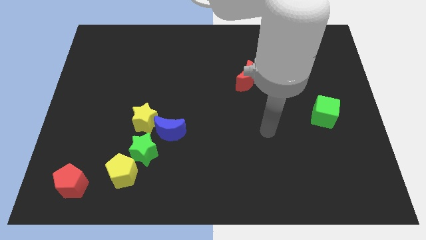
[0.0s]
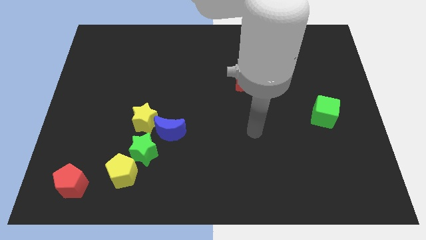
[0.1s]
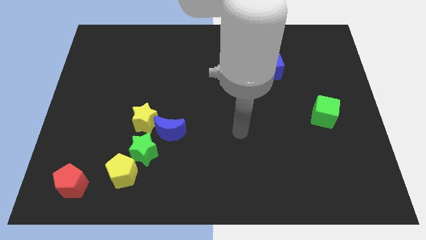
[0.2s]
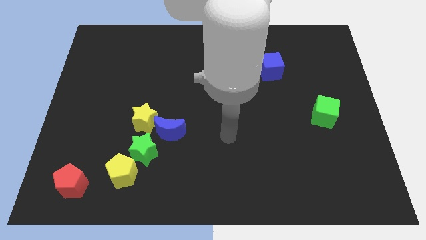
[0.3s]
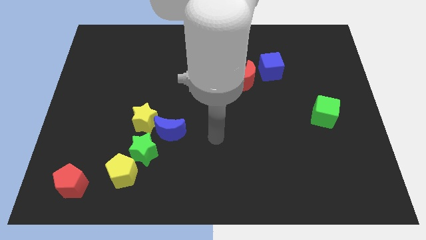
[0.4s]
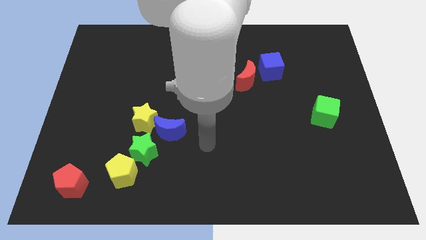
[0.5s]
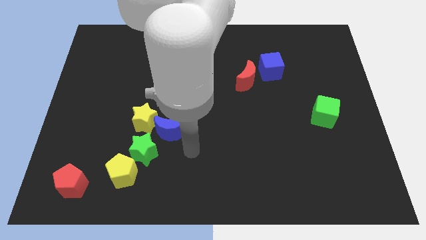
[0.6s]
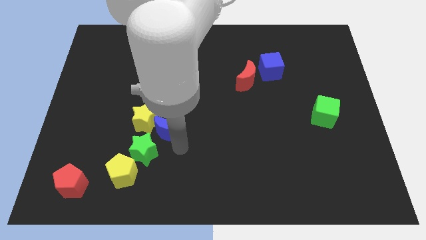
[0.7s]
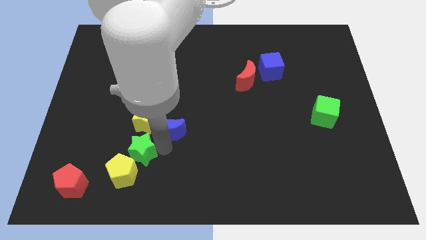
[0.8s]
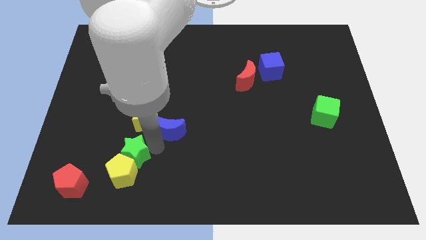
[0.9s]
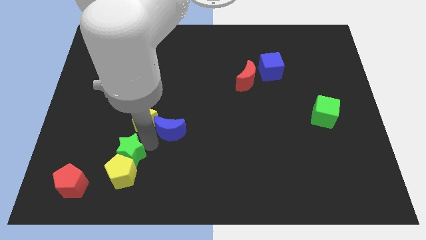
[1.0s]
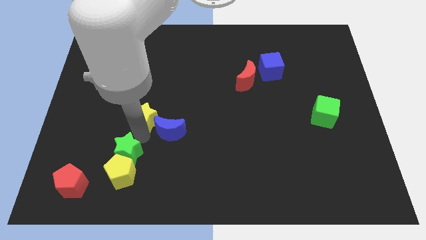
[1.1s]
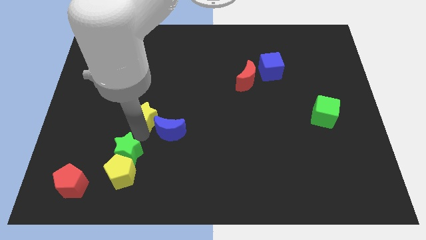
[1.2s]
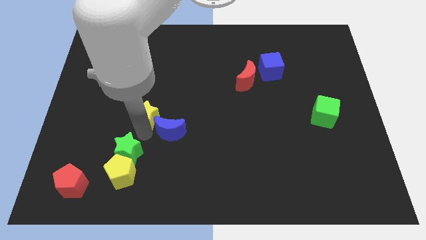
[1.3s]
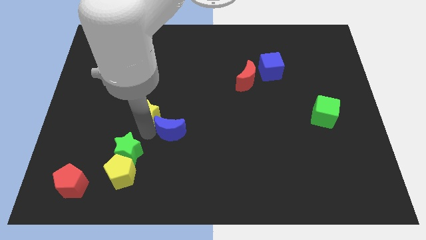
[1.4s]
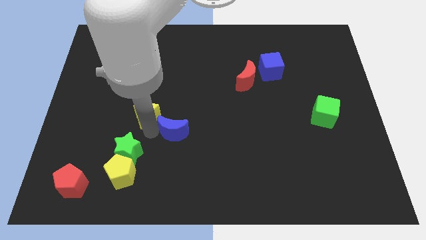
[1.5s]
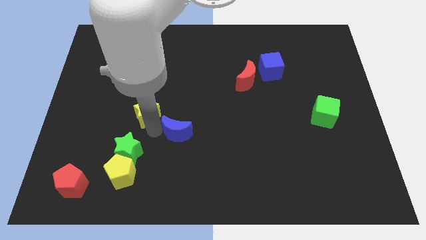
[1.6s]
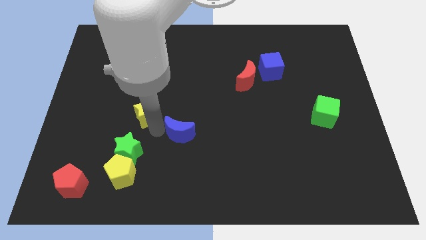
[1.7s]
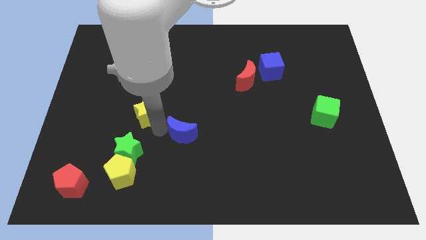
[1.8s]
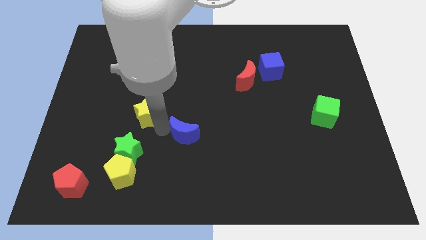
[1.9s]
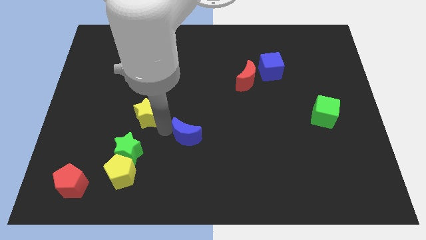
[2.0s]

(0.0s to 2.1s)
pull the blue moon apart from the yellow star and green star

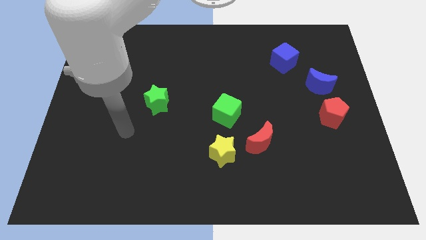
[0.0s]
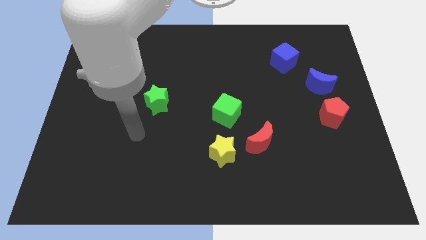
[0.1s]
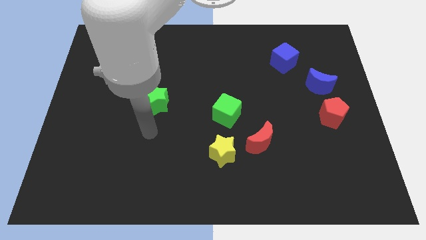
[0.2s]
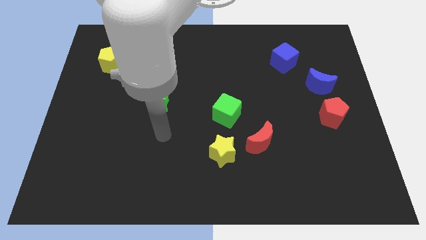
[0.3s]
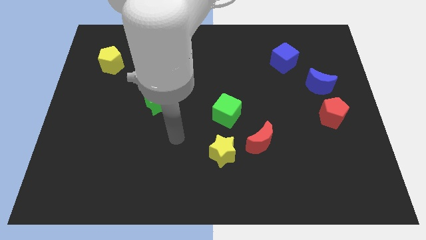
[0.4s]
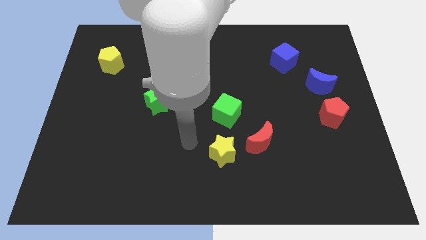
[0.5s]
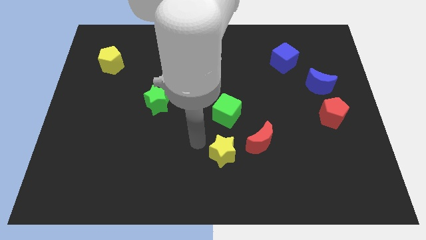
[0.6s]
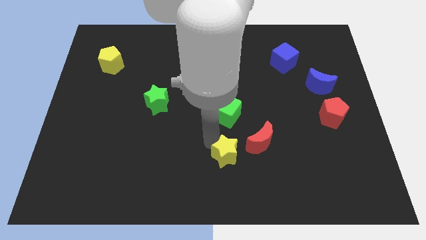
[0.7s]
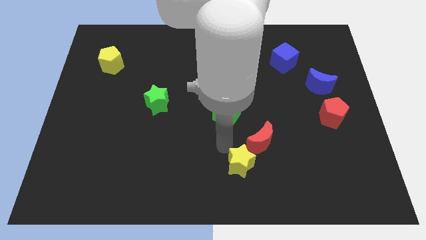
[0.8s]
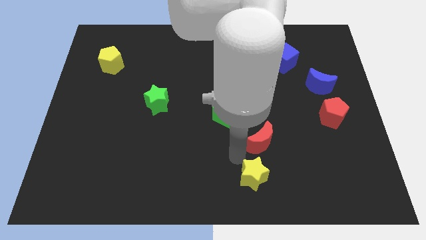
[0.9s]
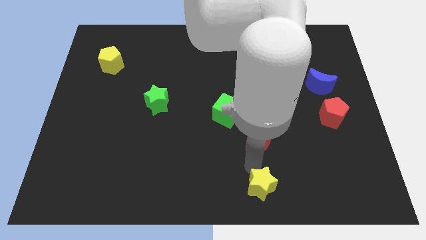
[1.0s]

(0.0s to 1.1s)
separate the red moon from the yellow star

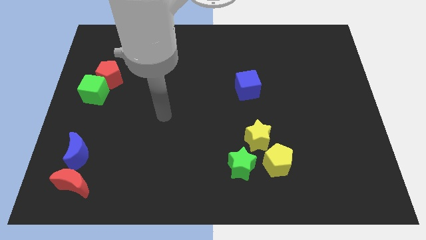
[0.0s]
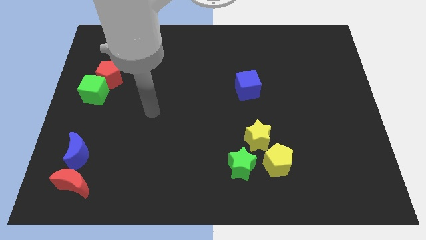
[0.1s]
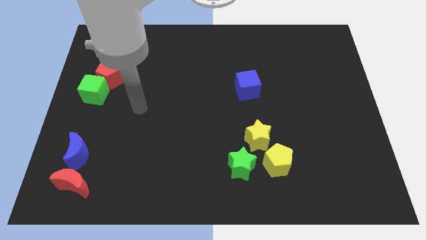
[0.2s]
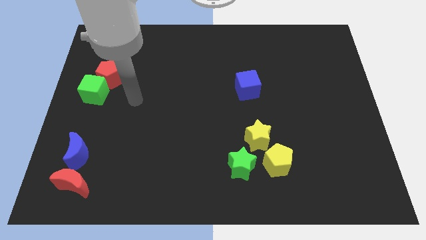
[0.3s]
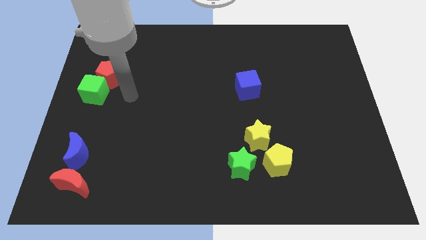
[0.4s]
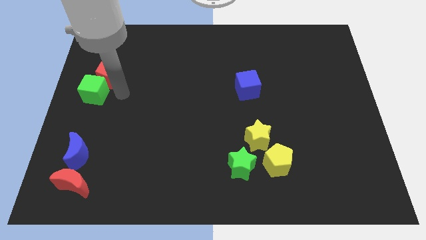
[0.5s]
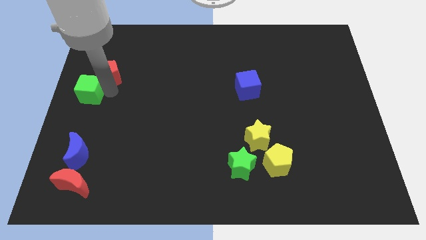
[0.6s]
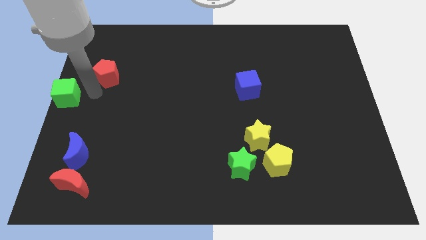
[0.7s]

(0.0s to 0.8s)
separate the red pentagon from the green cube

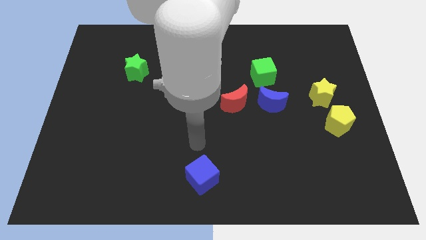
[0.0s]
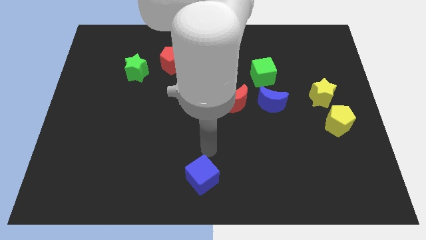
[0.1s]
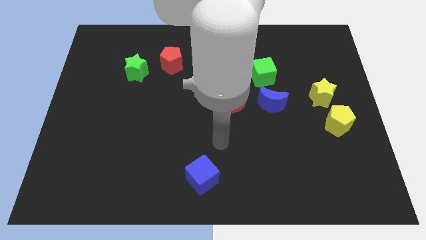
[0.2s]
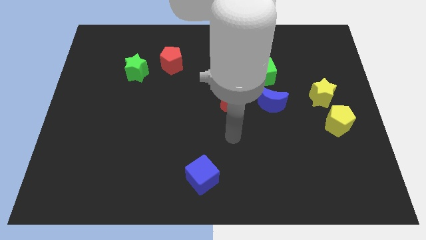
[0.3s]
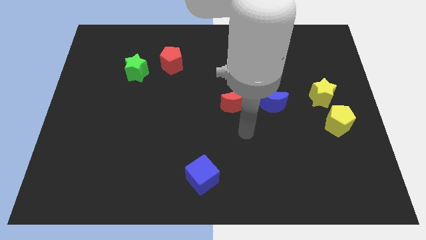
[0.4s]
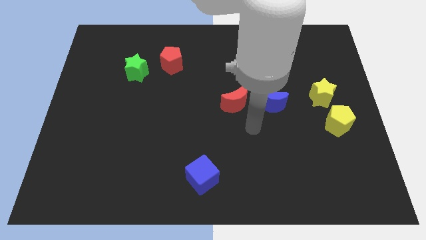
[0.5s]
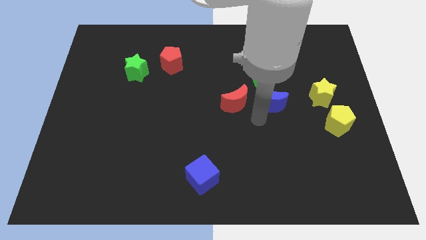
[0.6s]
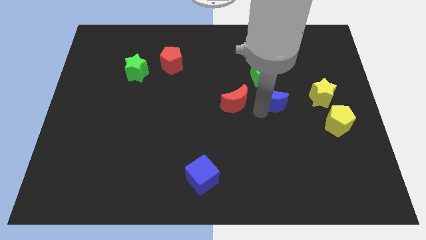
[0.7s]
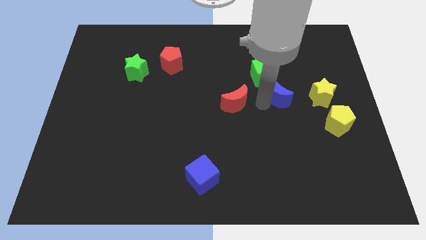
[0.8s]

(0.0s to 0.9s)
pull the red moon apart from the blue moon

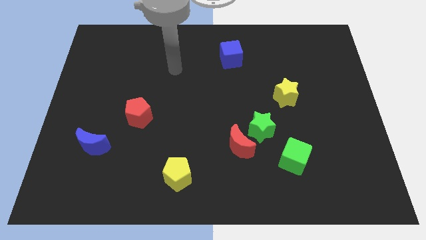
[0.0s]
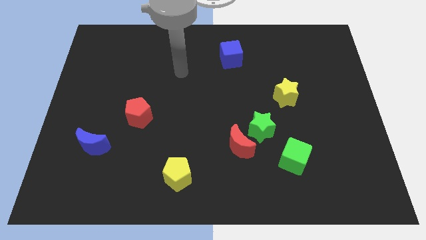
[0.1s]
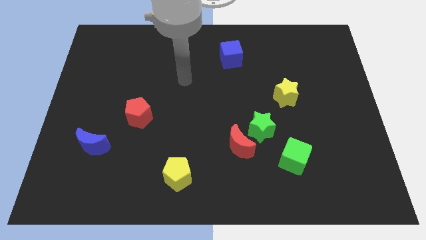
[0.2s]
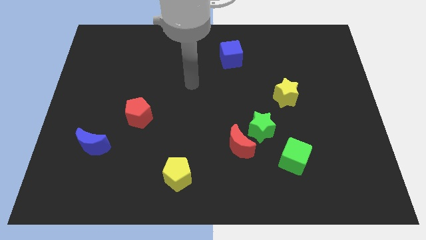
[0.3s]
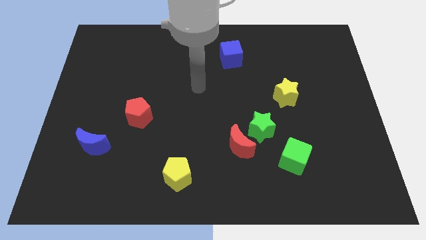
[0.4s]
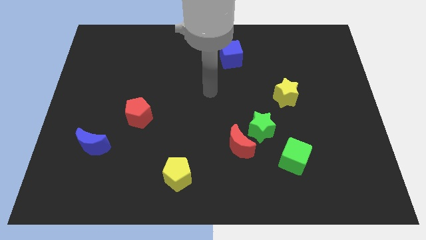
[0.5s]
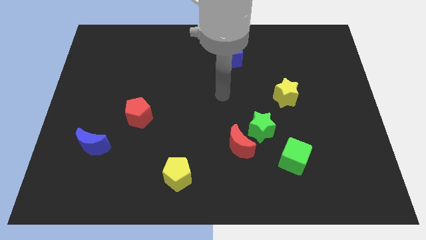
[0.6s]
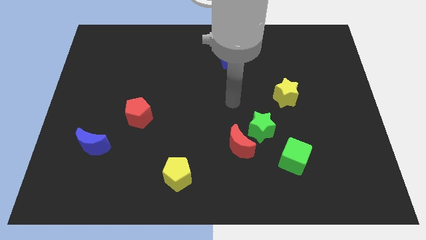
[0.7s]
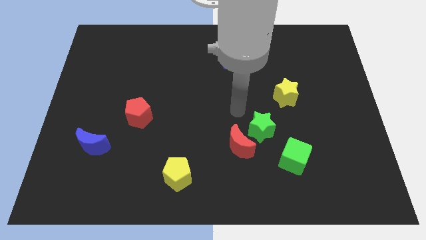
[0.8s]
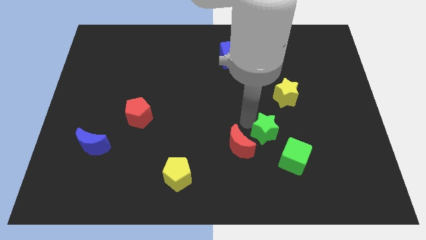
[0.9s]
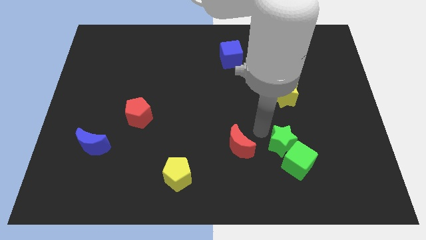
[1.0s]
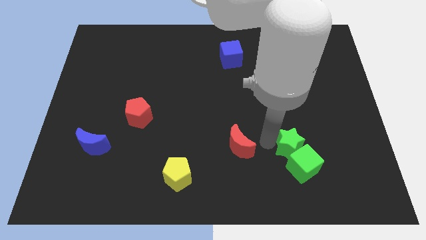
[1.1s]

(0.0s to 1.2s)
move the red moon away from the green star

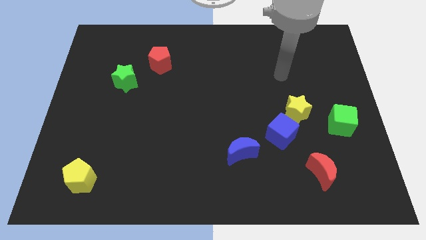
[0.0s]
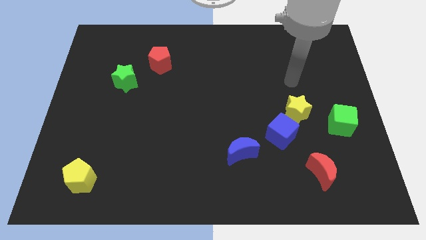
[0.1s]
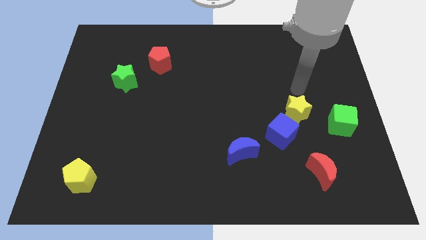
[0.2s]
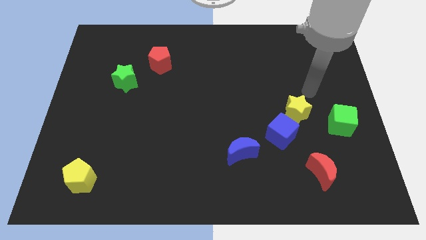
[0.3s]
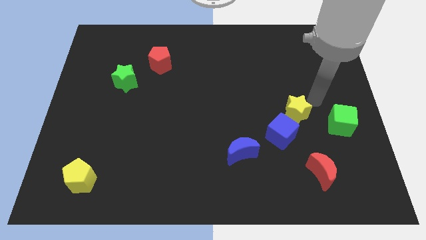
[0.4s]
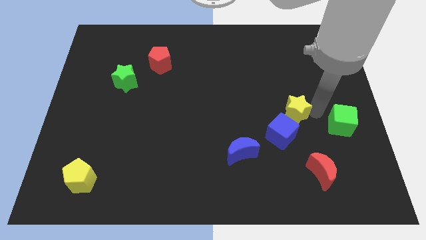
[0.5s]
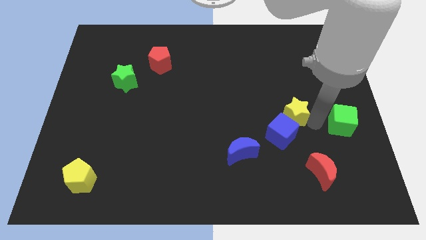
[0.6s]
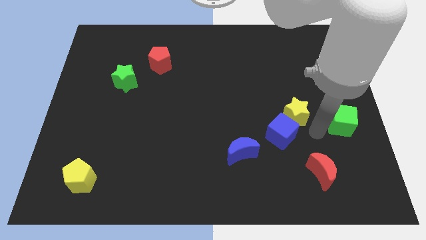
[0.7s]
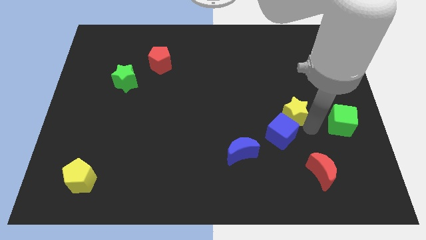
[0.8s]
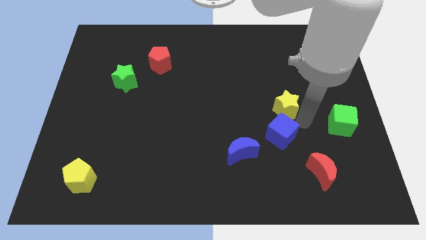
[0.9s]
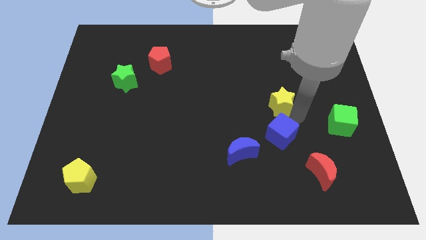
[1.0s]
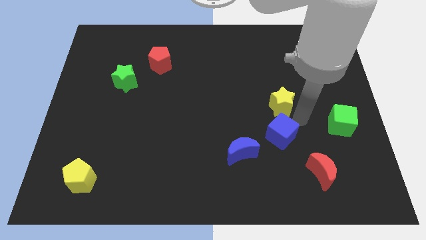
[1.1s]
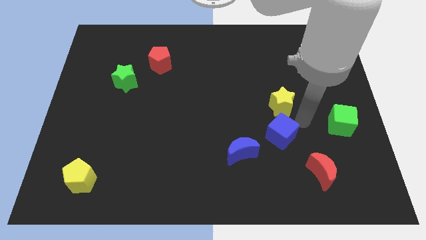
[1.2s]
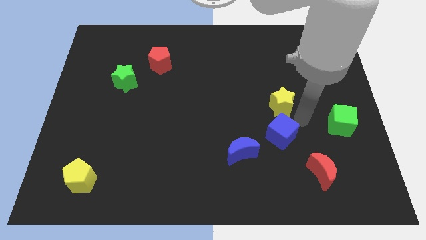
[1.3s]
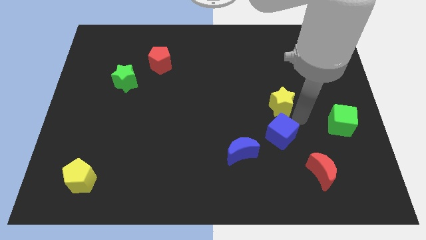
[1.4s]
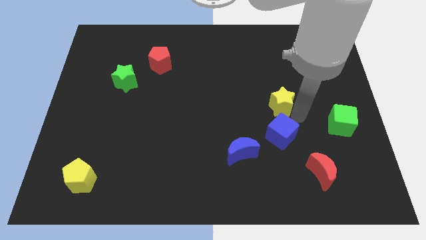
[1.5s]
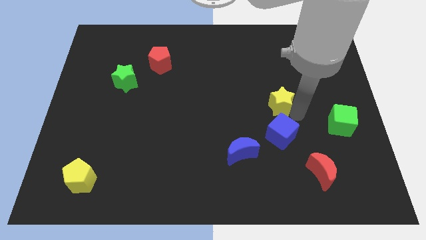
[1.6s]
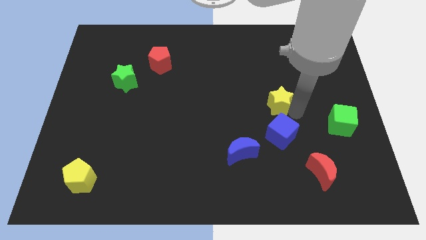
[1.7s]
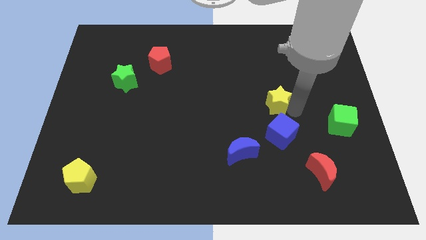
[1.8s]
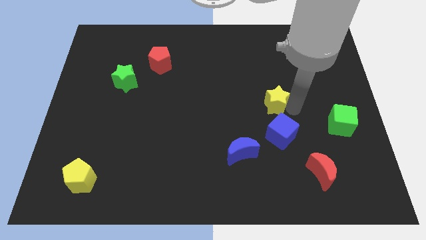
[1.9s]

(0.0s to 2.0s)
move the yellow star away from the blue cube and green cube

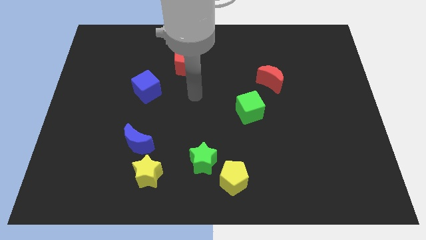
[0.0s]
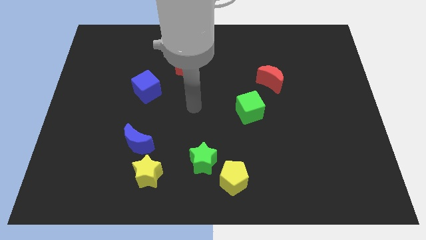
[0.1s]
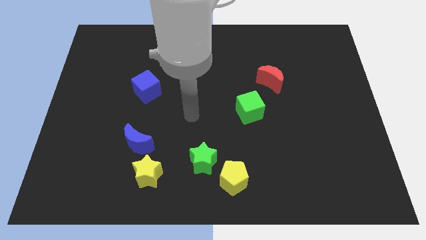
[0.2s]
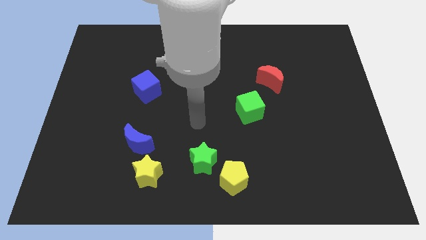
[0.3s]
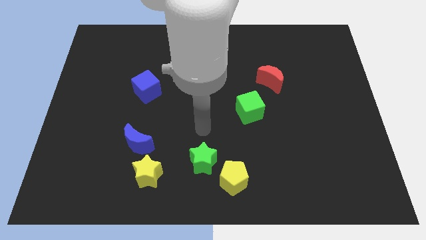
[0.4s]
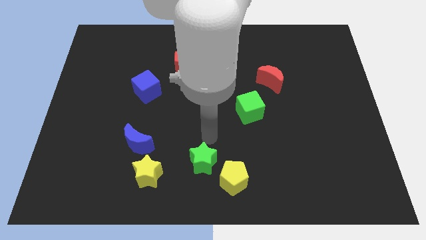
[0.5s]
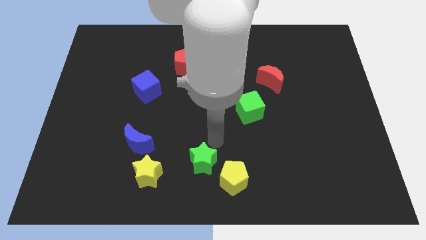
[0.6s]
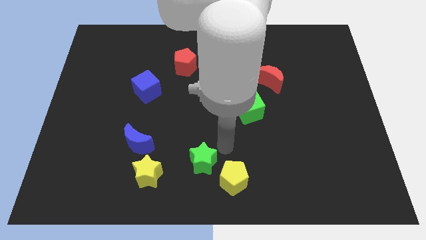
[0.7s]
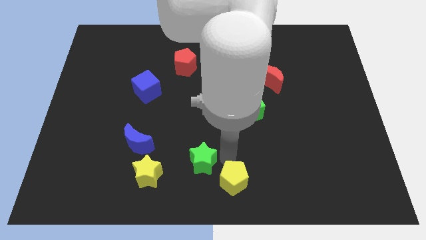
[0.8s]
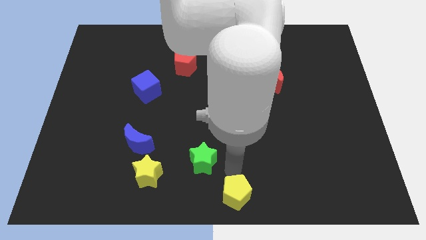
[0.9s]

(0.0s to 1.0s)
separate the green star from the yellow pentagon

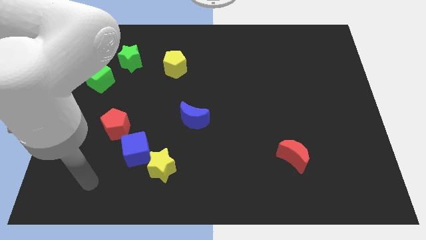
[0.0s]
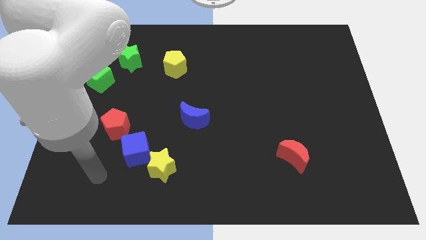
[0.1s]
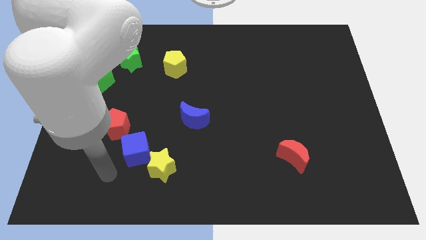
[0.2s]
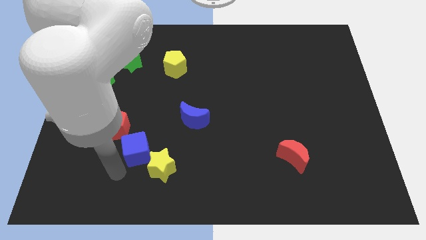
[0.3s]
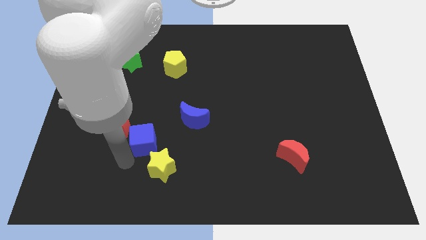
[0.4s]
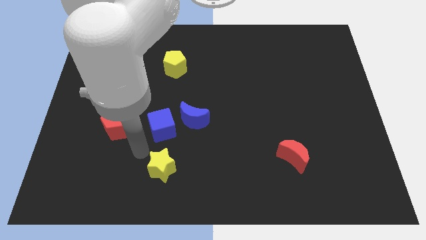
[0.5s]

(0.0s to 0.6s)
separate the yellow star from the blue cube
